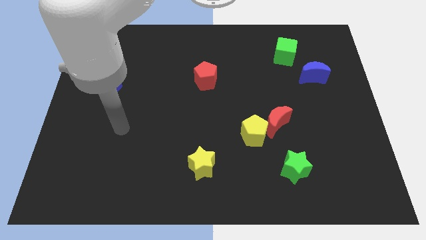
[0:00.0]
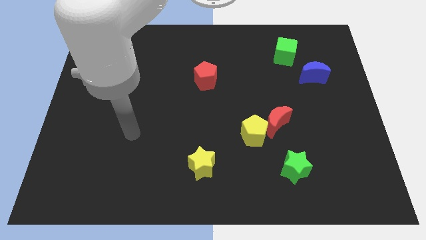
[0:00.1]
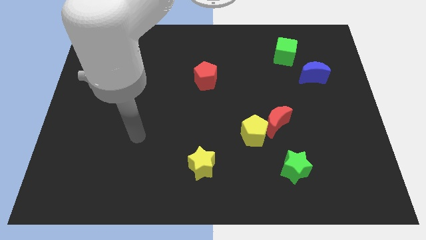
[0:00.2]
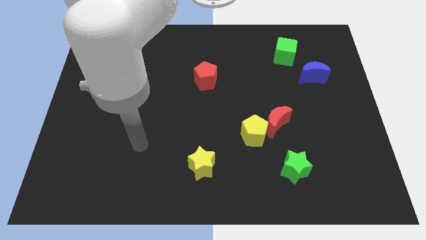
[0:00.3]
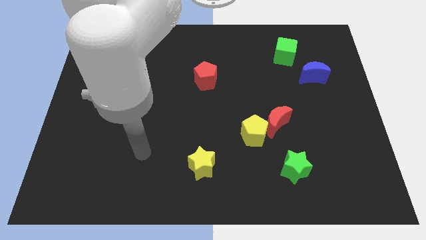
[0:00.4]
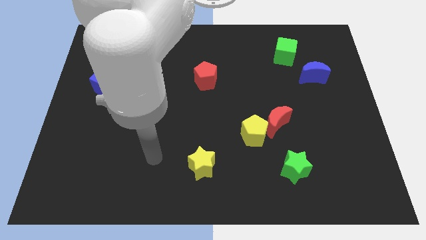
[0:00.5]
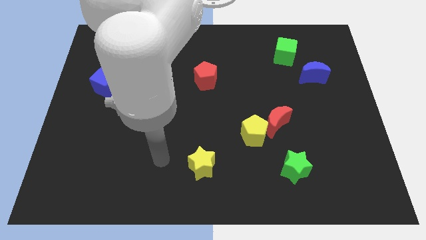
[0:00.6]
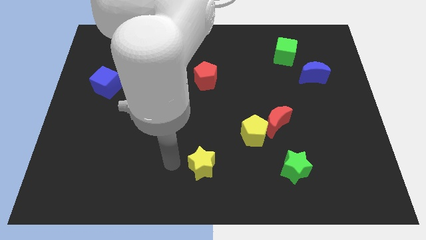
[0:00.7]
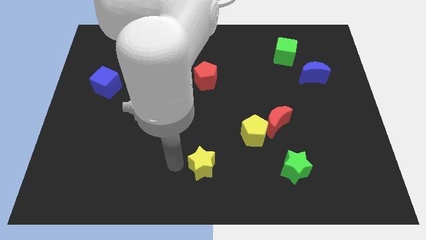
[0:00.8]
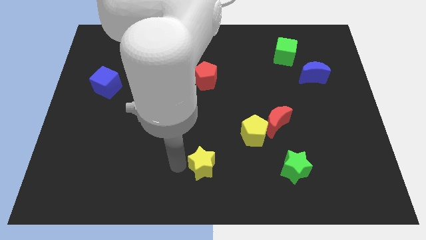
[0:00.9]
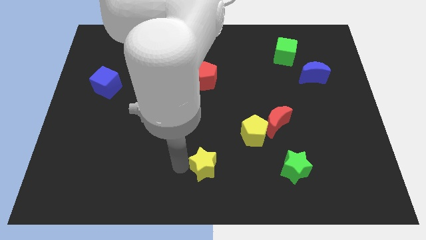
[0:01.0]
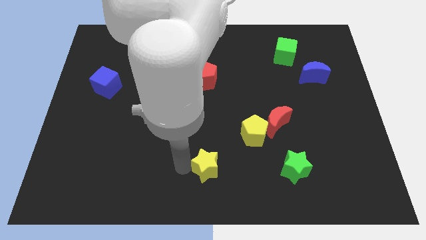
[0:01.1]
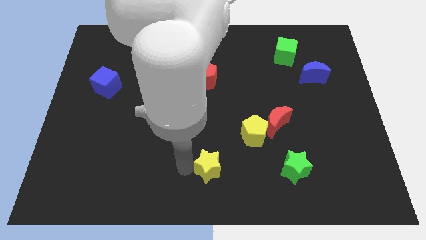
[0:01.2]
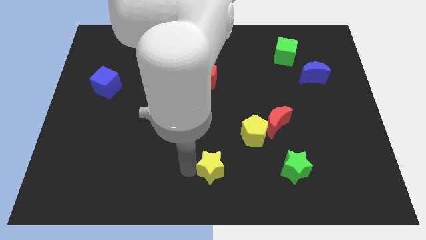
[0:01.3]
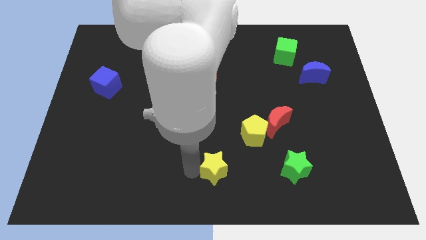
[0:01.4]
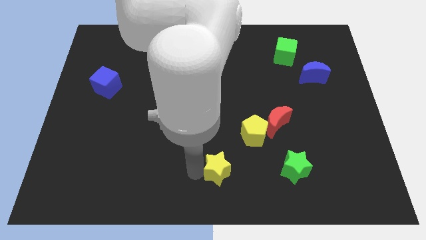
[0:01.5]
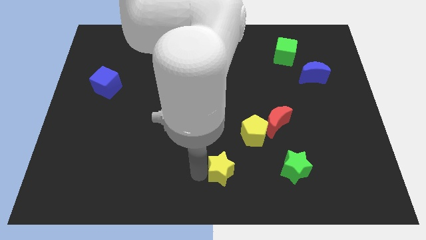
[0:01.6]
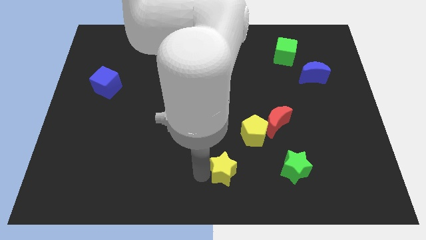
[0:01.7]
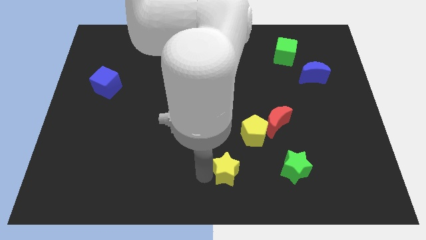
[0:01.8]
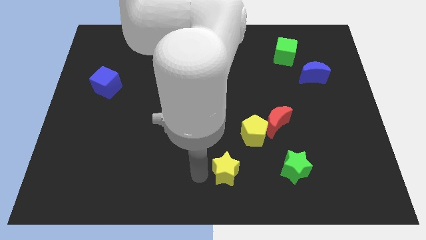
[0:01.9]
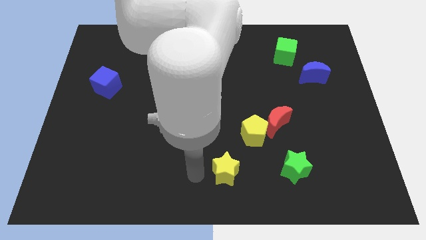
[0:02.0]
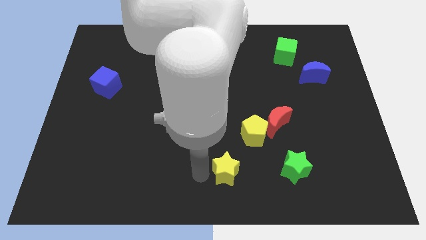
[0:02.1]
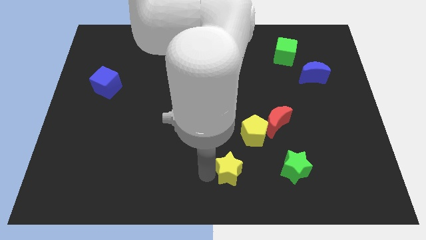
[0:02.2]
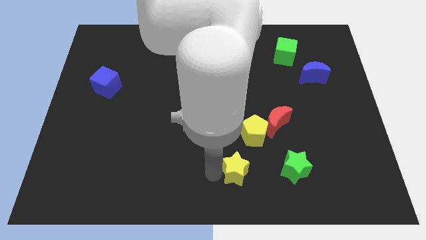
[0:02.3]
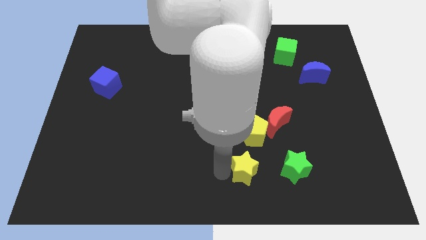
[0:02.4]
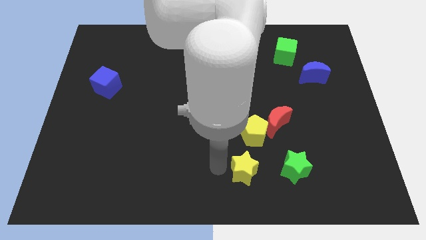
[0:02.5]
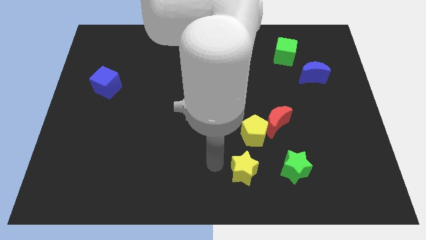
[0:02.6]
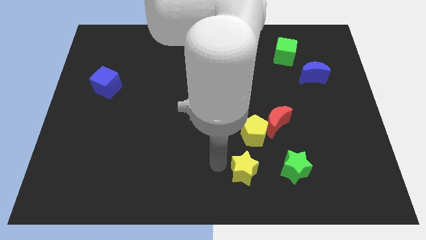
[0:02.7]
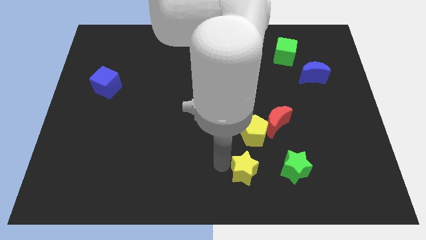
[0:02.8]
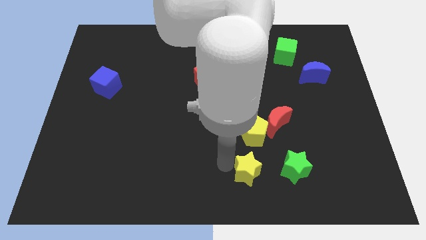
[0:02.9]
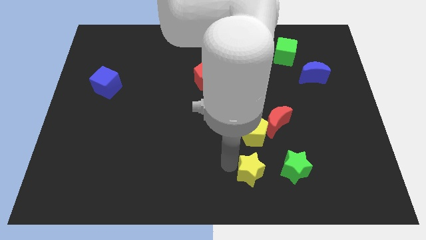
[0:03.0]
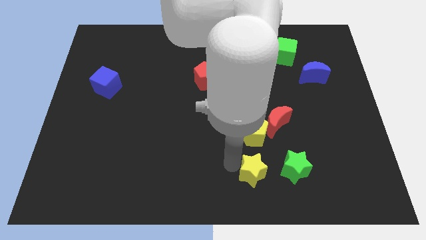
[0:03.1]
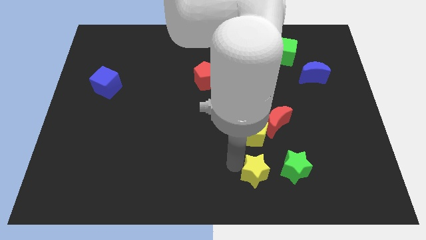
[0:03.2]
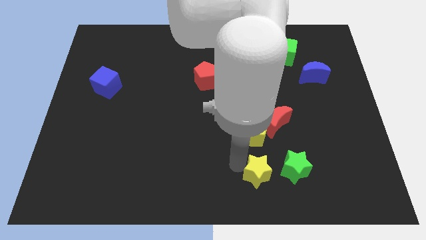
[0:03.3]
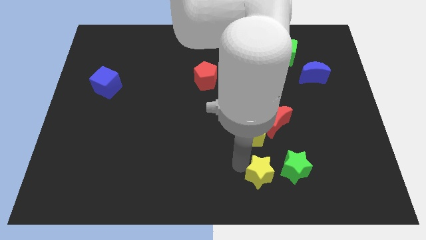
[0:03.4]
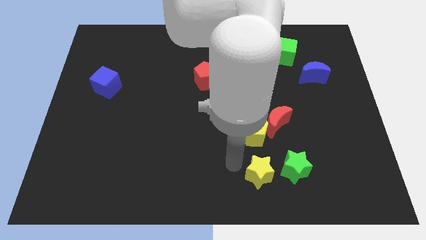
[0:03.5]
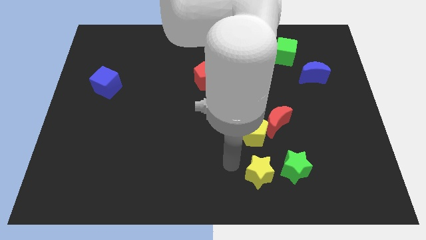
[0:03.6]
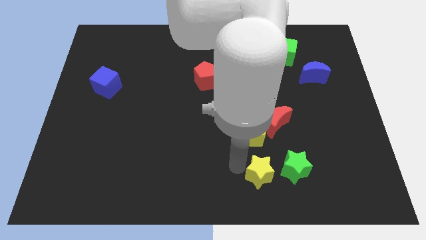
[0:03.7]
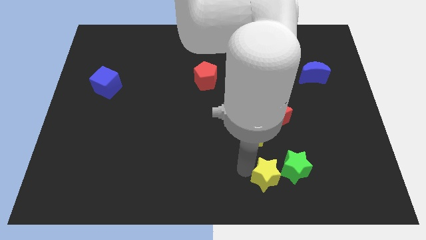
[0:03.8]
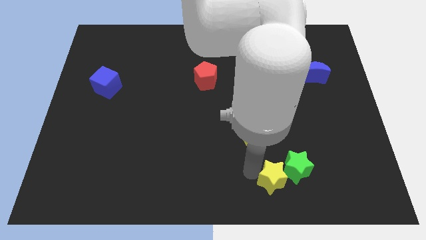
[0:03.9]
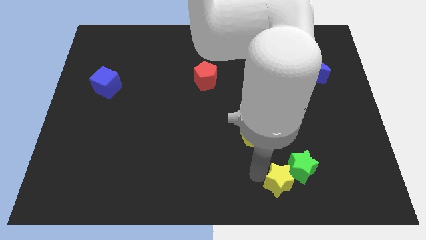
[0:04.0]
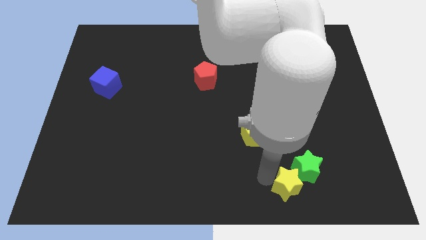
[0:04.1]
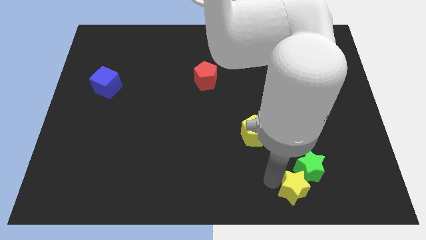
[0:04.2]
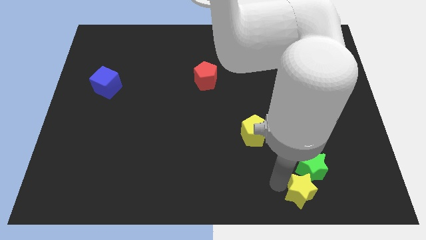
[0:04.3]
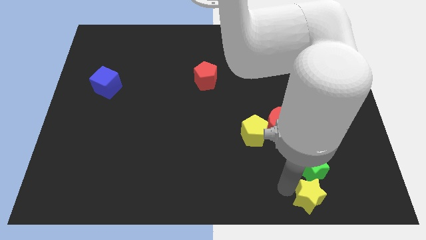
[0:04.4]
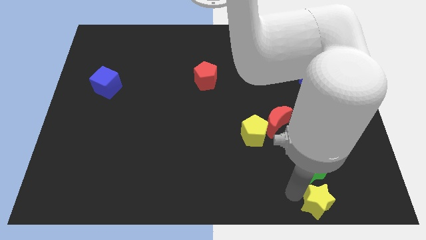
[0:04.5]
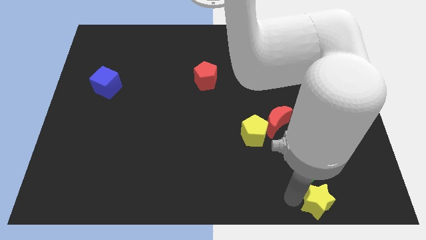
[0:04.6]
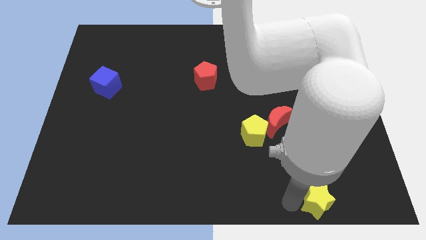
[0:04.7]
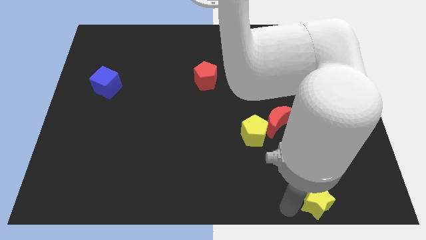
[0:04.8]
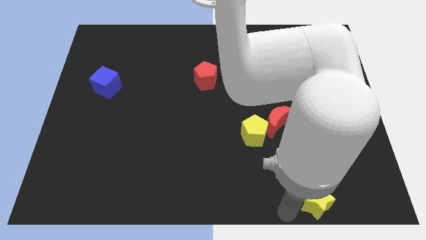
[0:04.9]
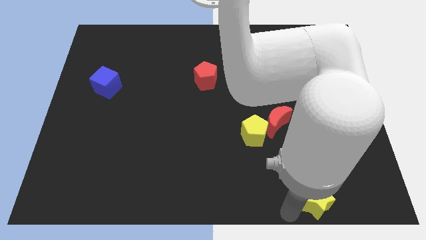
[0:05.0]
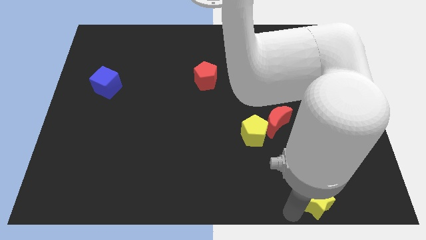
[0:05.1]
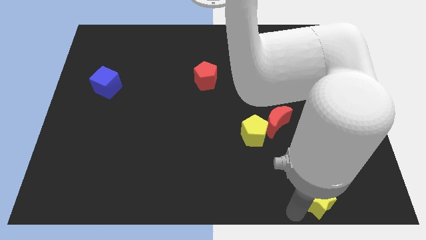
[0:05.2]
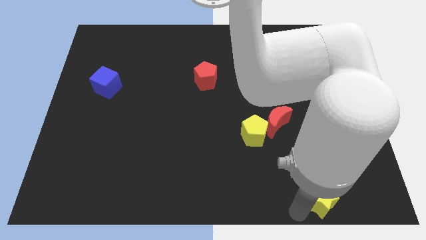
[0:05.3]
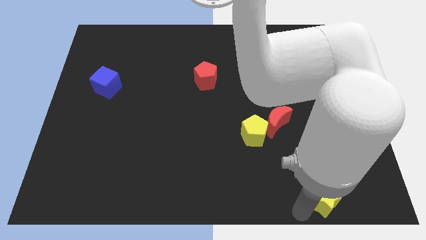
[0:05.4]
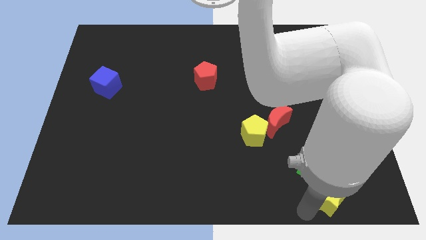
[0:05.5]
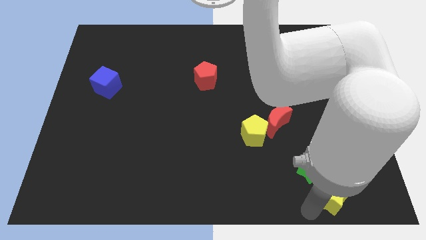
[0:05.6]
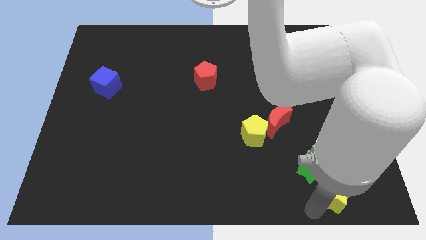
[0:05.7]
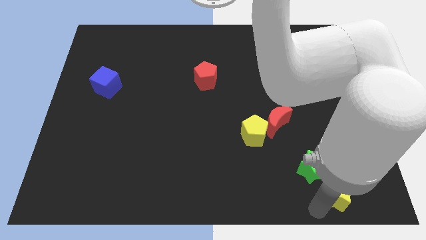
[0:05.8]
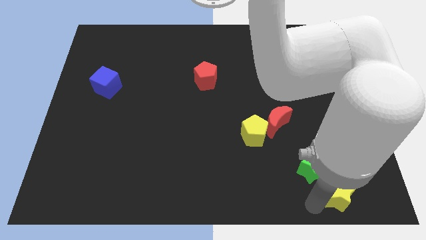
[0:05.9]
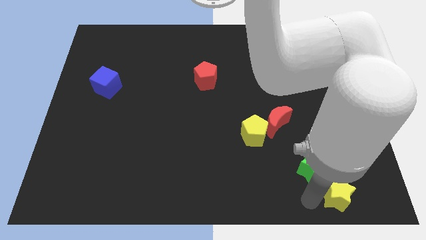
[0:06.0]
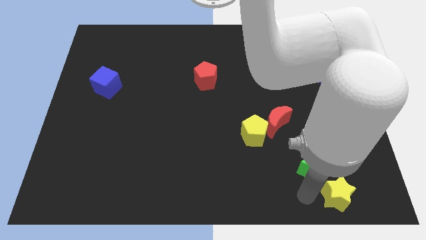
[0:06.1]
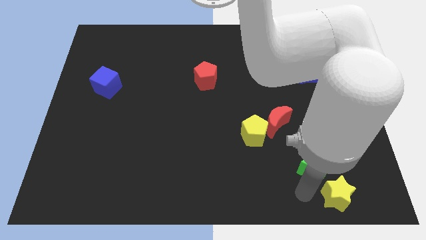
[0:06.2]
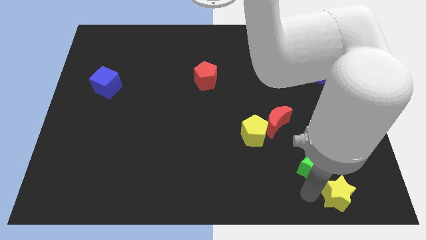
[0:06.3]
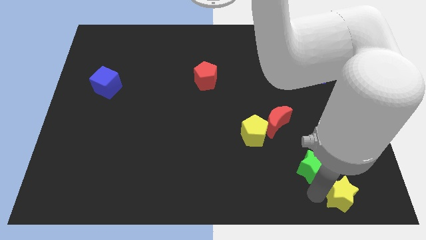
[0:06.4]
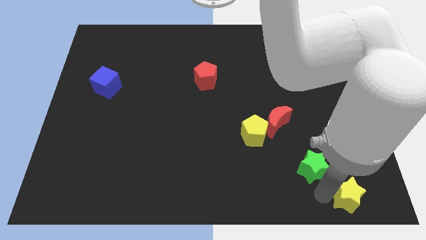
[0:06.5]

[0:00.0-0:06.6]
slide the yellow star to the bottom right of the board
